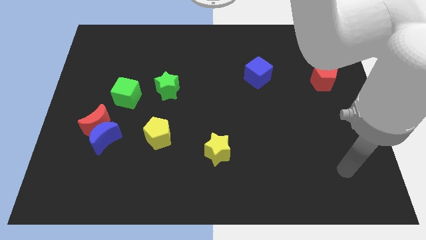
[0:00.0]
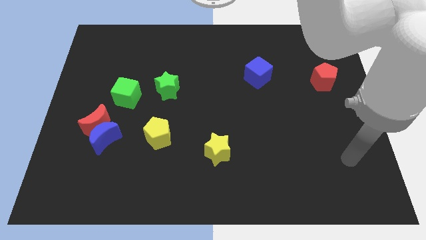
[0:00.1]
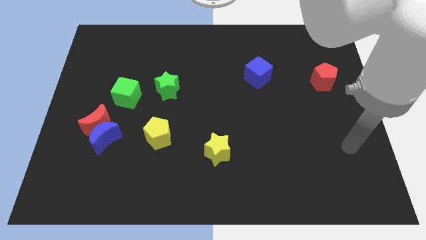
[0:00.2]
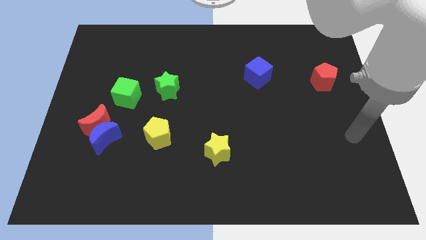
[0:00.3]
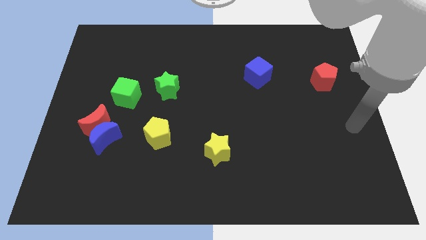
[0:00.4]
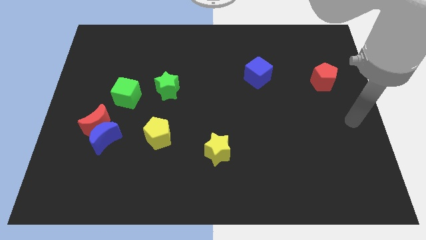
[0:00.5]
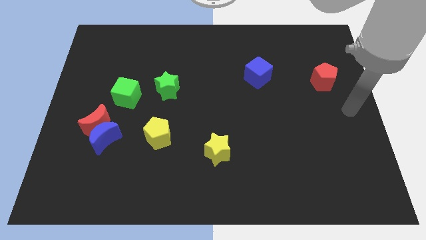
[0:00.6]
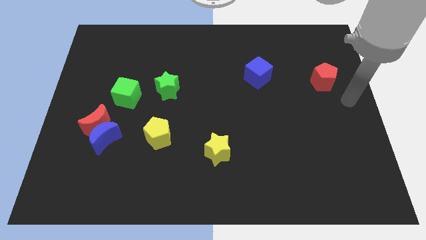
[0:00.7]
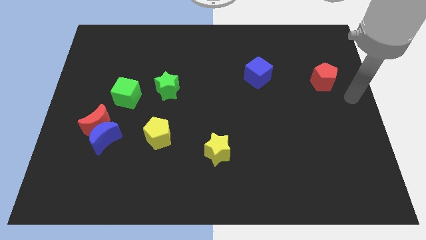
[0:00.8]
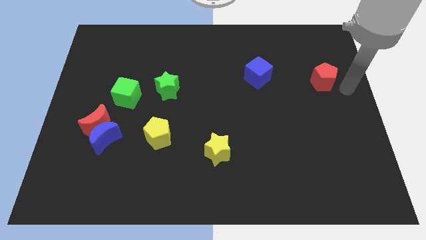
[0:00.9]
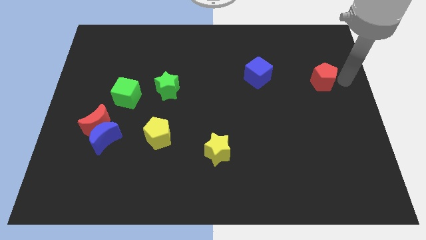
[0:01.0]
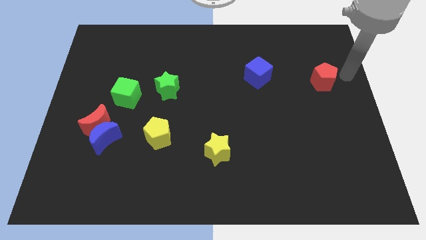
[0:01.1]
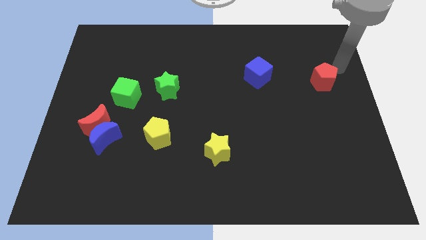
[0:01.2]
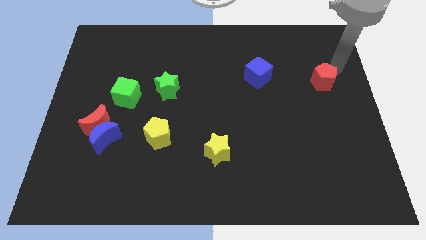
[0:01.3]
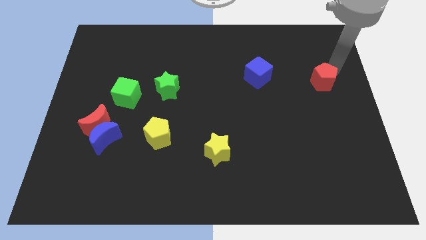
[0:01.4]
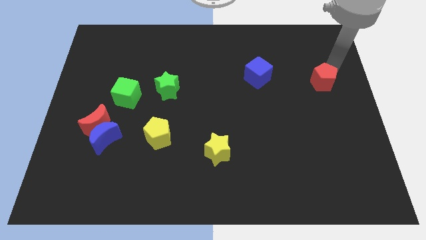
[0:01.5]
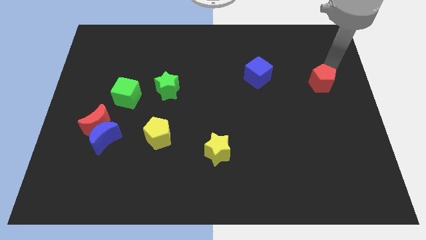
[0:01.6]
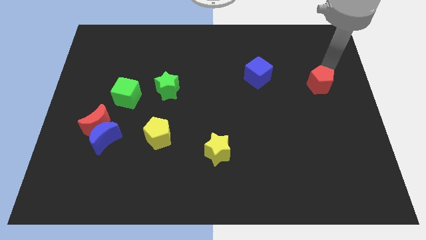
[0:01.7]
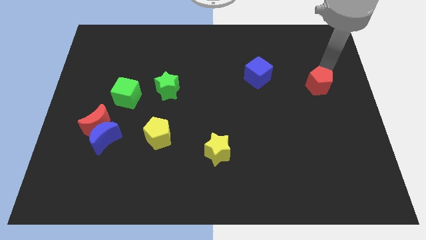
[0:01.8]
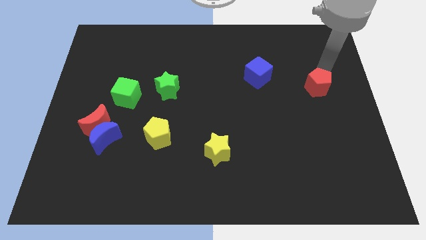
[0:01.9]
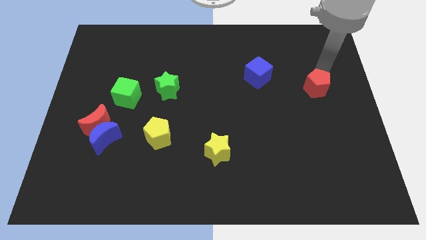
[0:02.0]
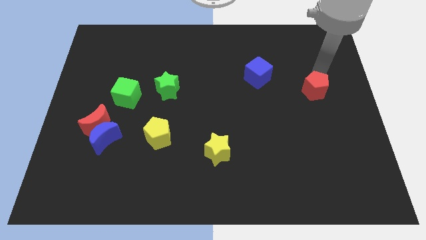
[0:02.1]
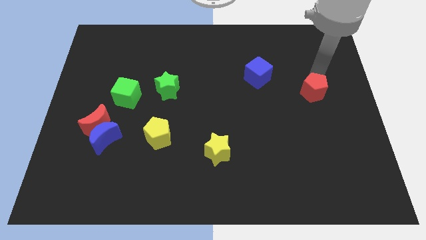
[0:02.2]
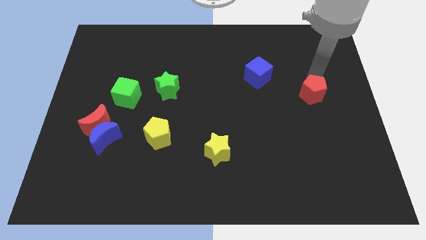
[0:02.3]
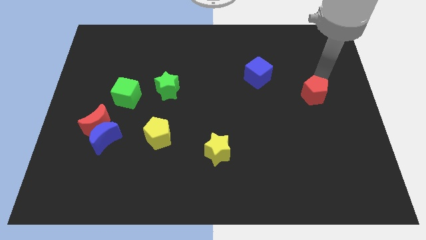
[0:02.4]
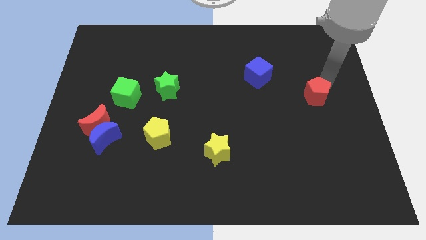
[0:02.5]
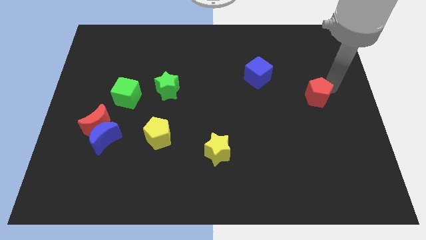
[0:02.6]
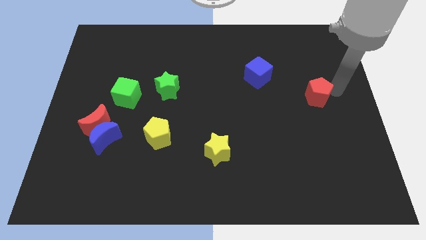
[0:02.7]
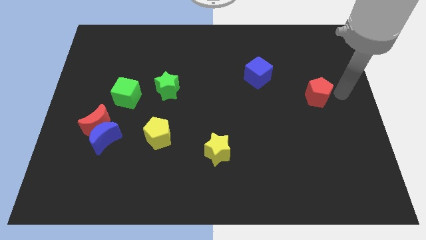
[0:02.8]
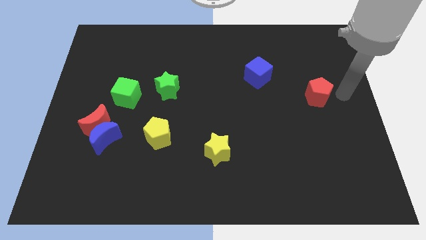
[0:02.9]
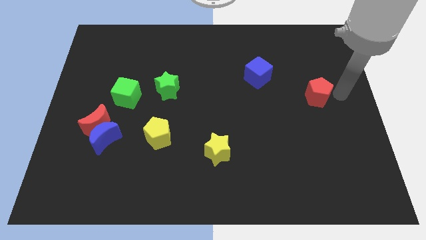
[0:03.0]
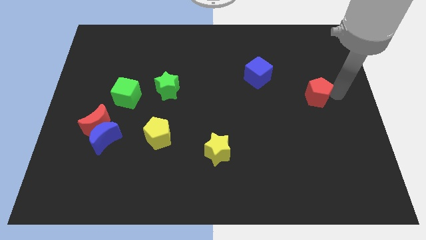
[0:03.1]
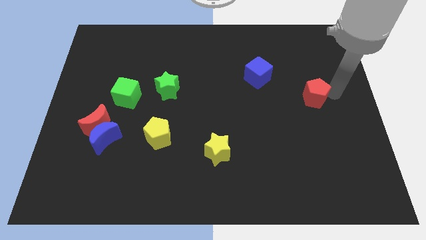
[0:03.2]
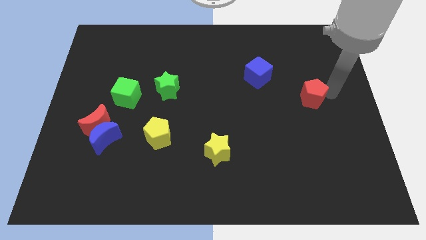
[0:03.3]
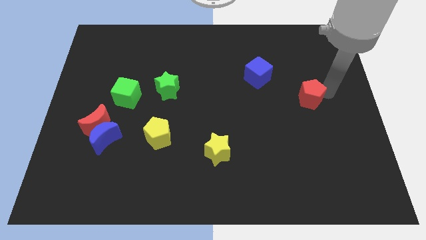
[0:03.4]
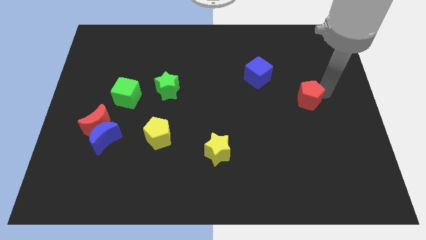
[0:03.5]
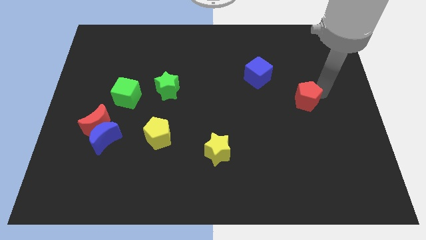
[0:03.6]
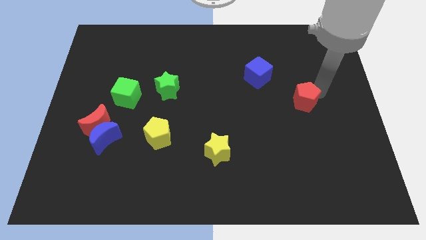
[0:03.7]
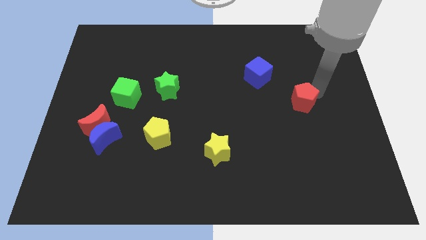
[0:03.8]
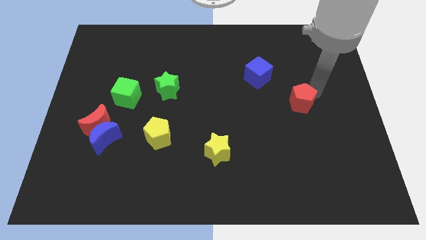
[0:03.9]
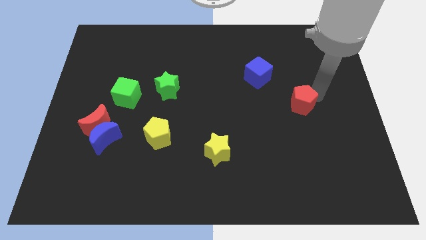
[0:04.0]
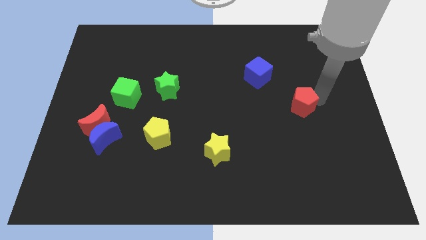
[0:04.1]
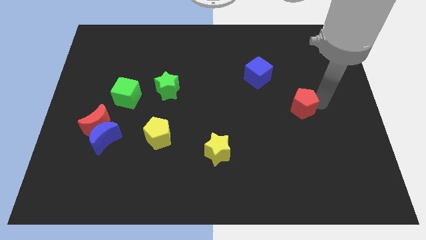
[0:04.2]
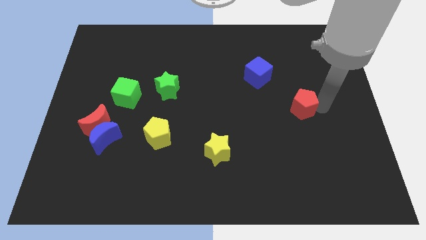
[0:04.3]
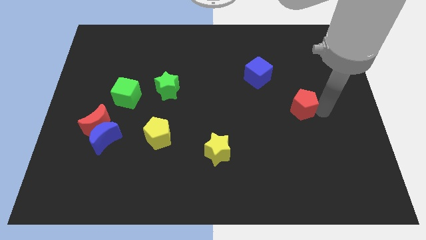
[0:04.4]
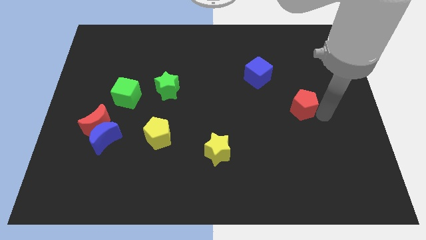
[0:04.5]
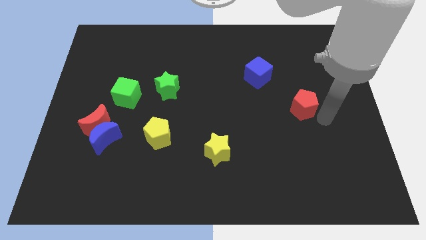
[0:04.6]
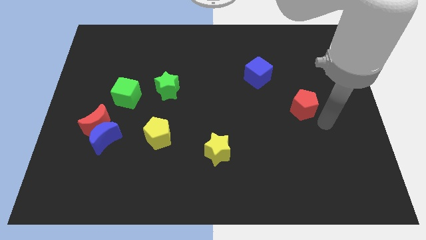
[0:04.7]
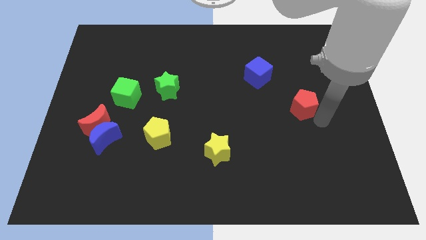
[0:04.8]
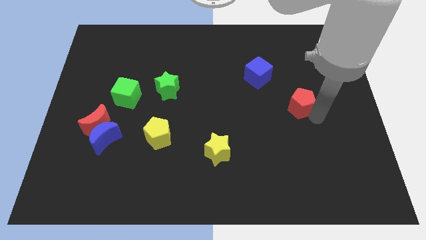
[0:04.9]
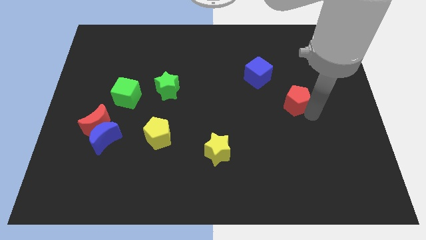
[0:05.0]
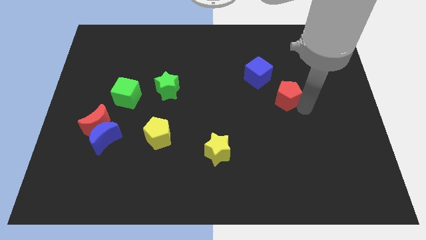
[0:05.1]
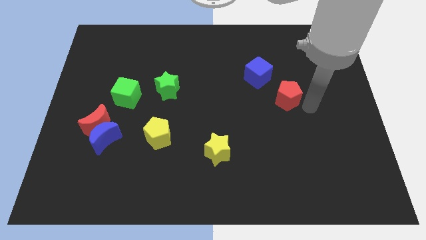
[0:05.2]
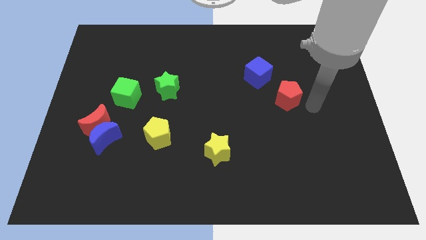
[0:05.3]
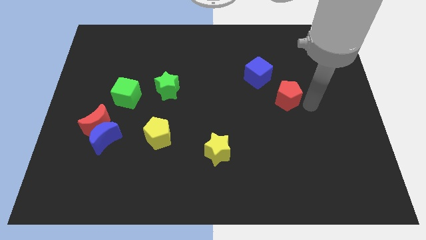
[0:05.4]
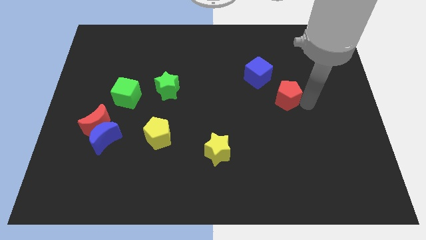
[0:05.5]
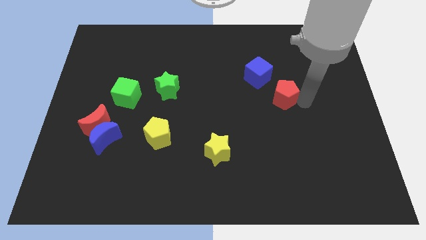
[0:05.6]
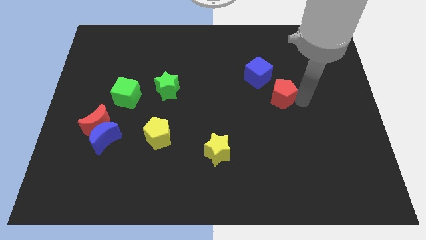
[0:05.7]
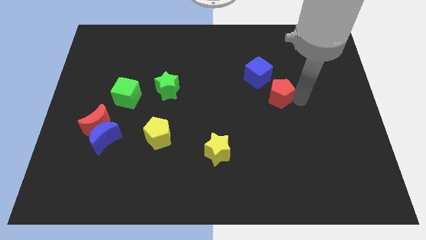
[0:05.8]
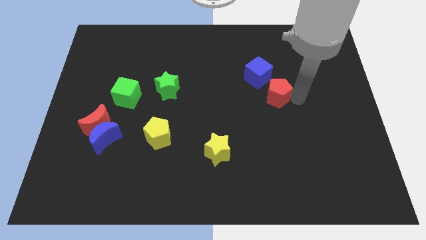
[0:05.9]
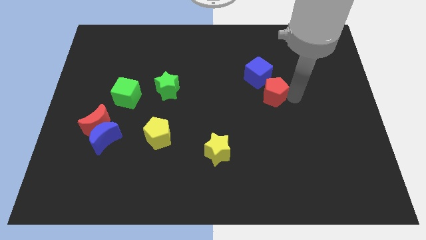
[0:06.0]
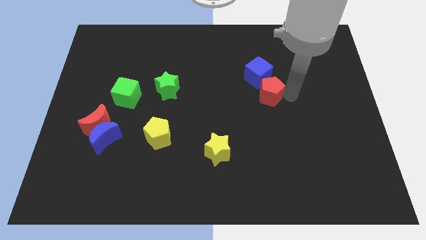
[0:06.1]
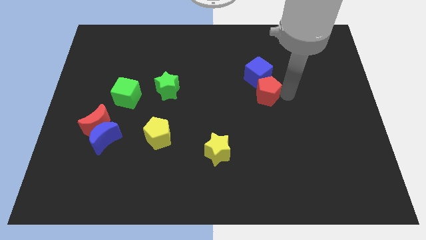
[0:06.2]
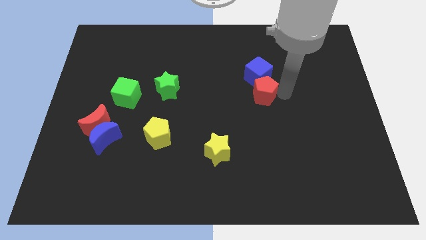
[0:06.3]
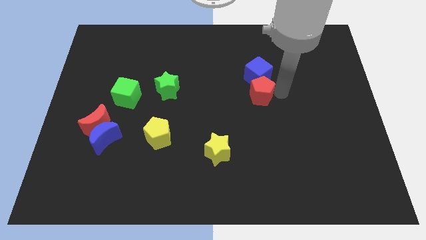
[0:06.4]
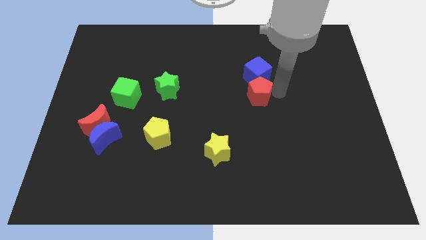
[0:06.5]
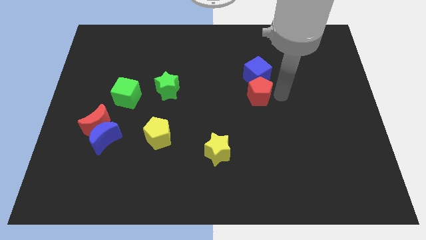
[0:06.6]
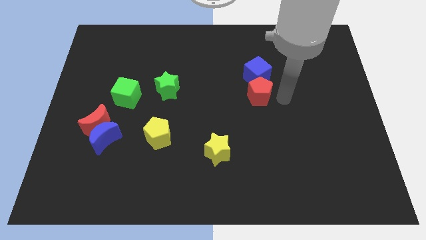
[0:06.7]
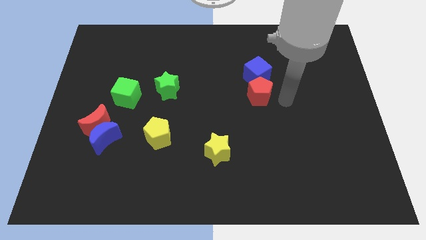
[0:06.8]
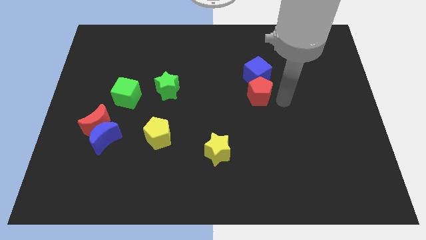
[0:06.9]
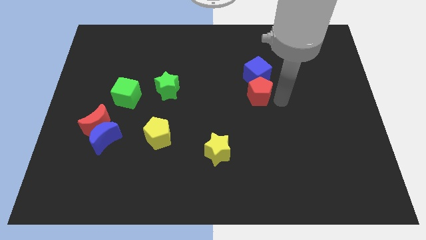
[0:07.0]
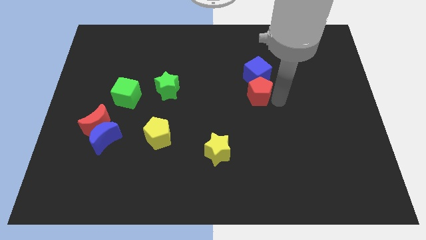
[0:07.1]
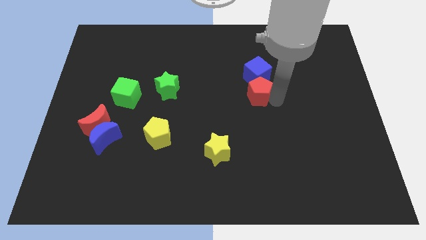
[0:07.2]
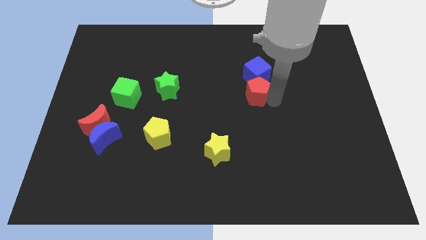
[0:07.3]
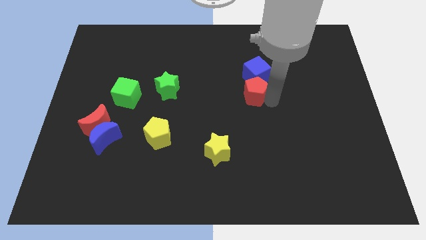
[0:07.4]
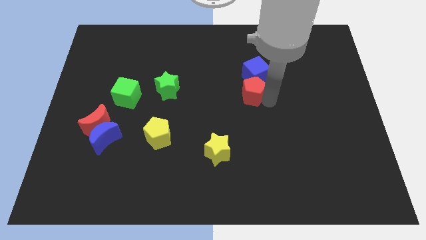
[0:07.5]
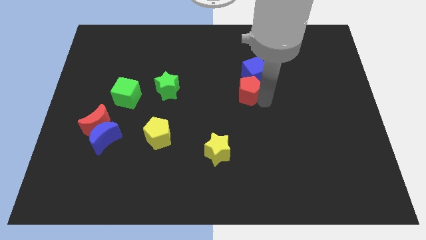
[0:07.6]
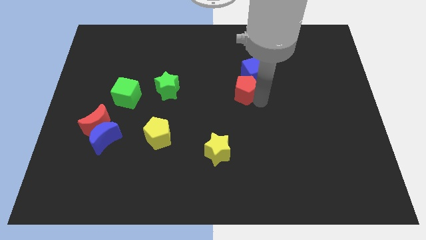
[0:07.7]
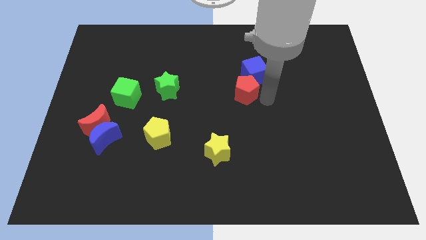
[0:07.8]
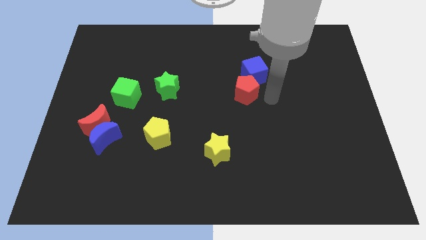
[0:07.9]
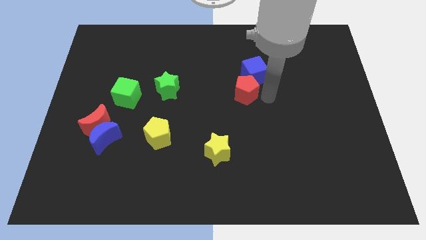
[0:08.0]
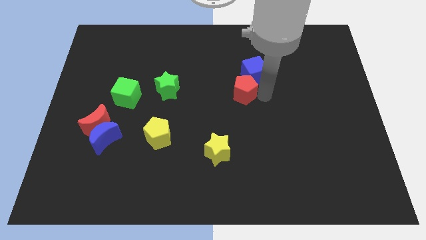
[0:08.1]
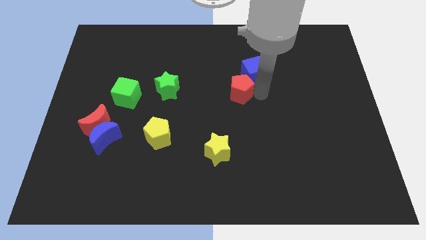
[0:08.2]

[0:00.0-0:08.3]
push the red pentagon to the left
